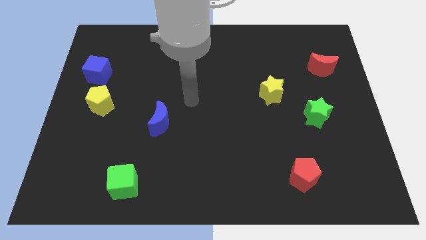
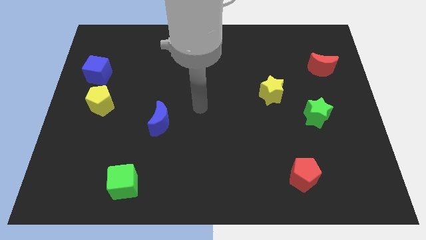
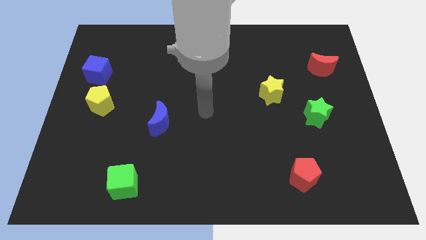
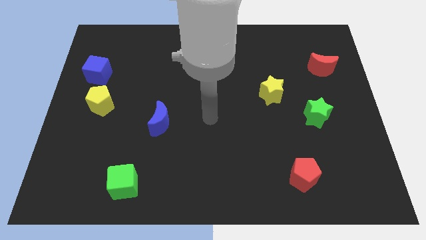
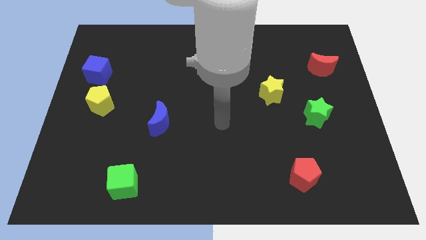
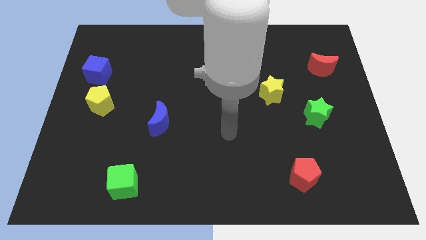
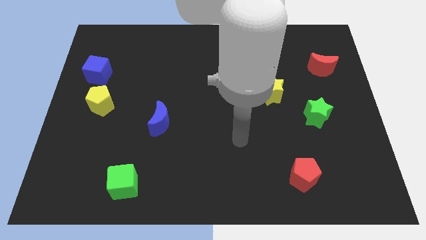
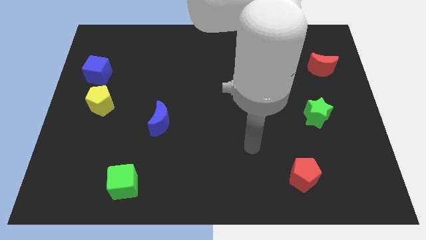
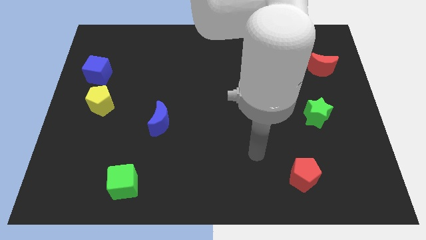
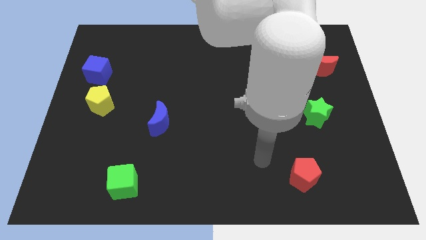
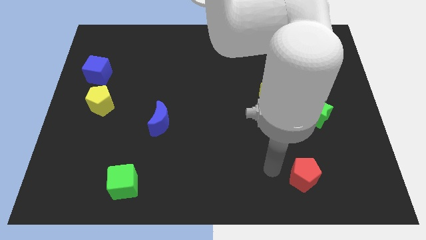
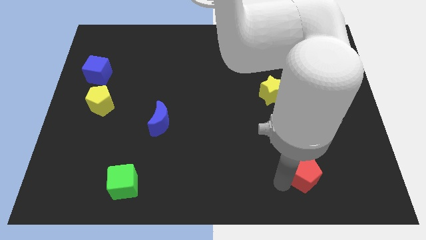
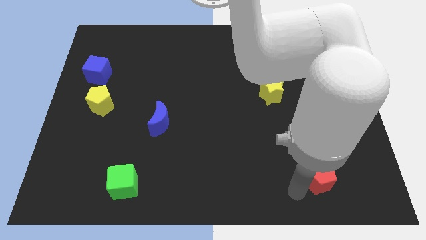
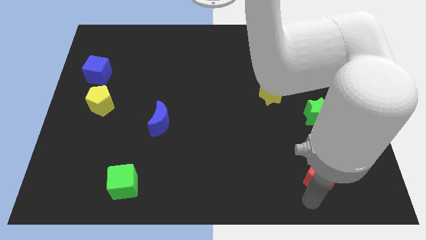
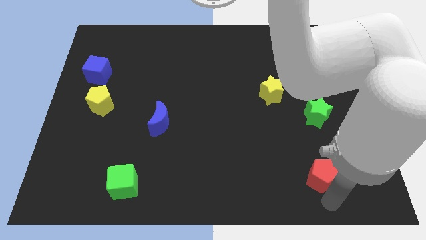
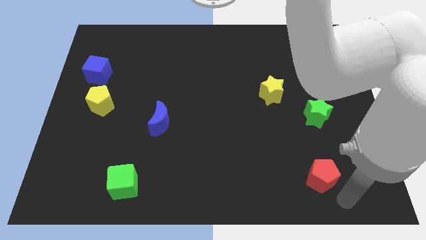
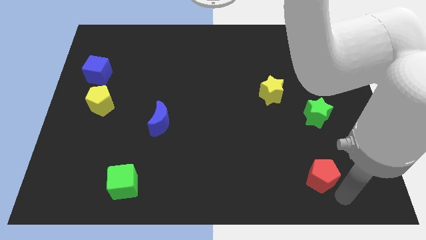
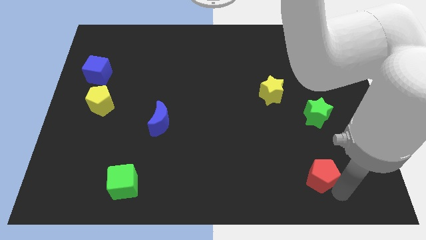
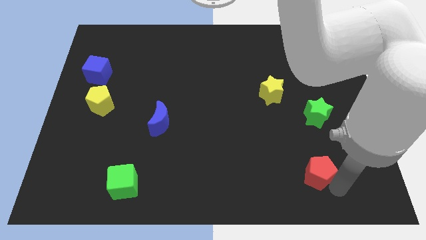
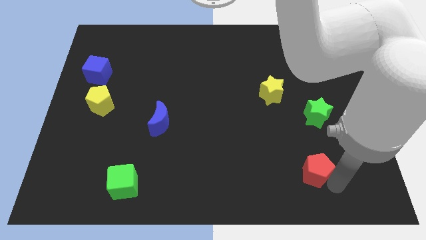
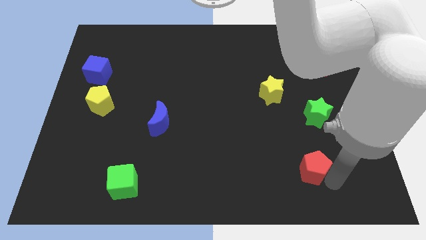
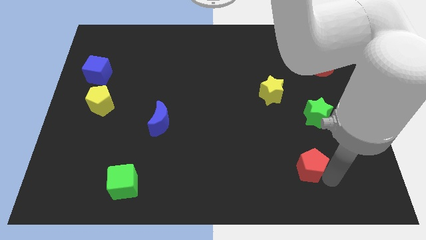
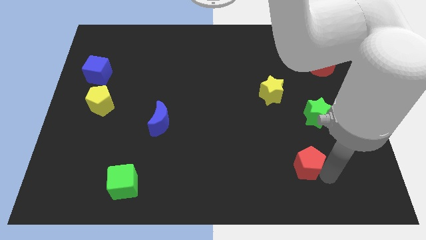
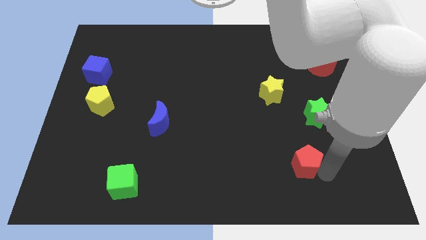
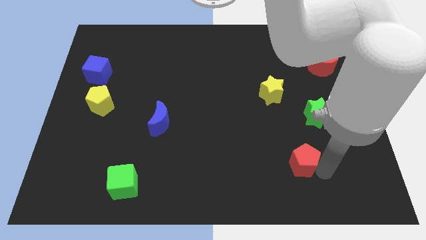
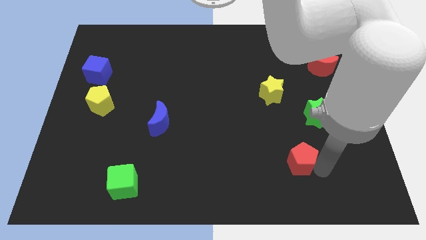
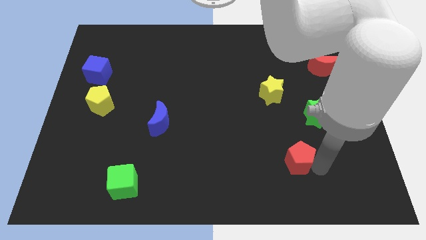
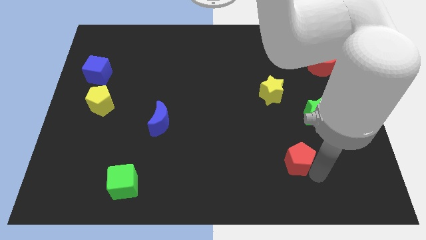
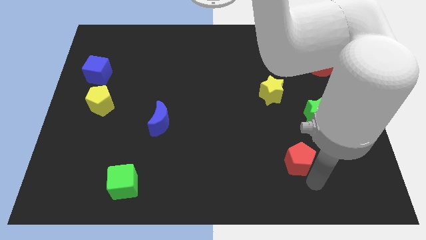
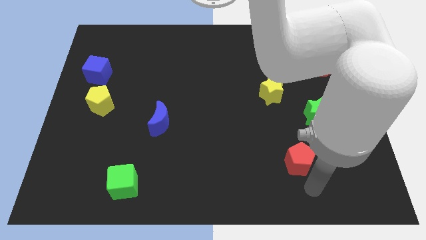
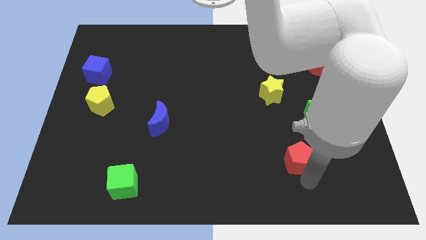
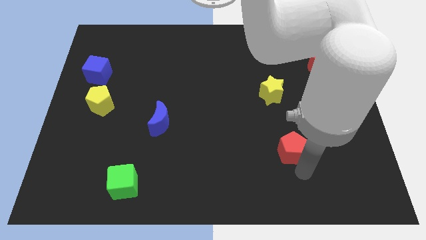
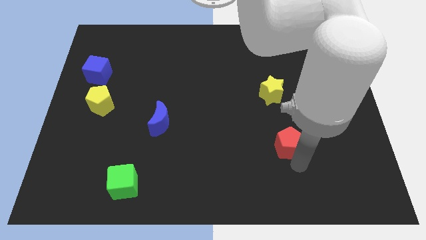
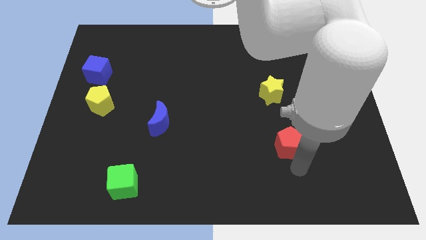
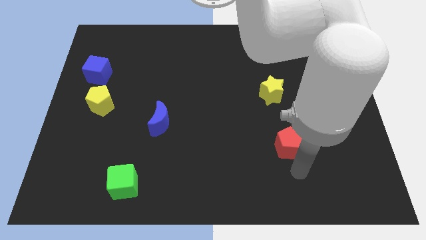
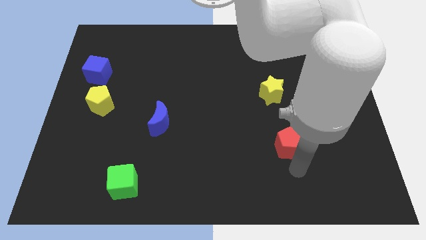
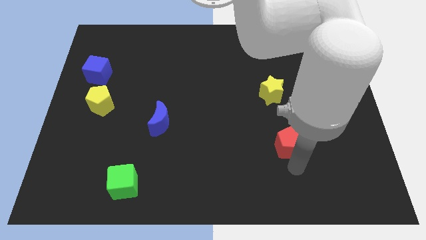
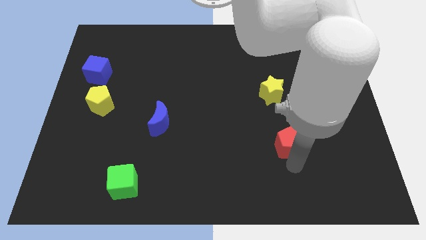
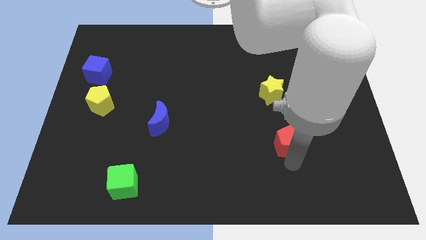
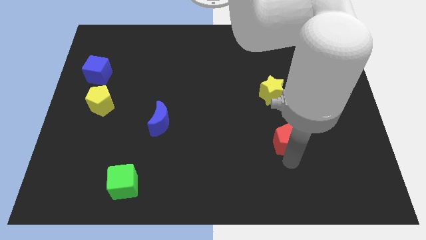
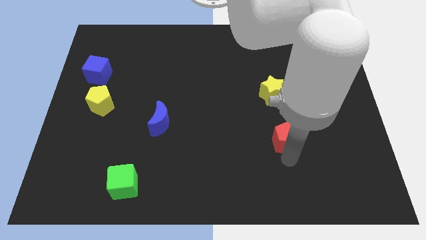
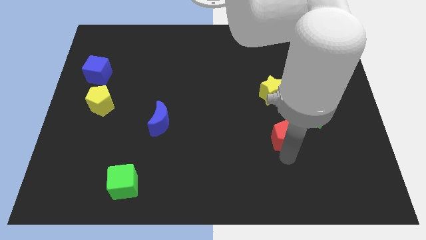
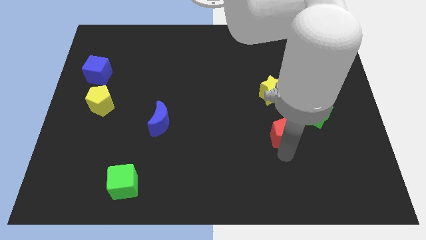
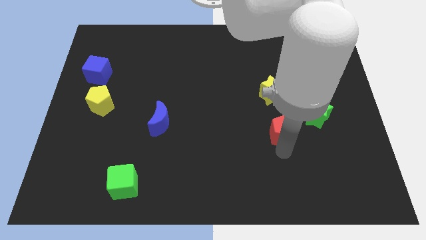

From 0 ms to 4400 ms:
move the red pentagon to the left side of the green star

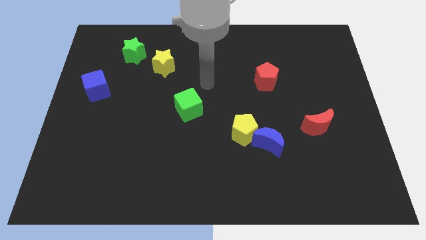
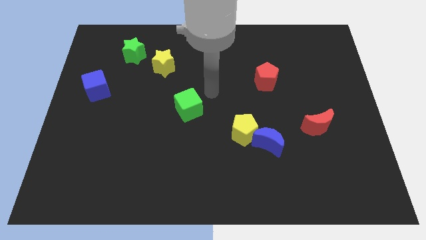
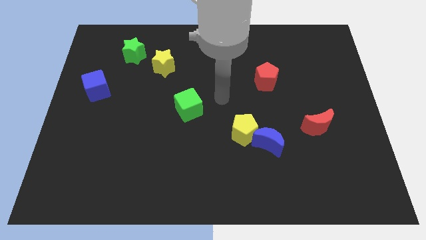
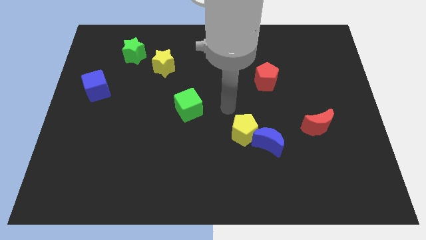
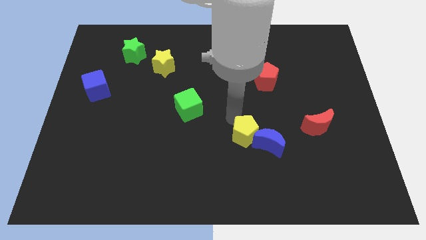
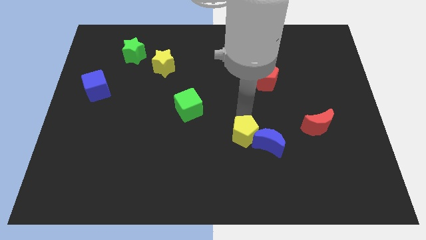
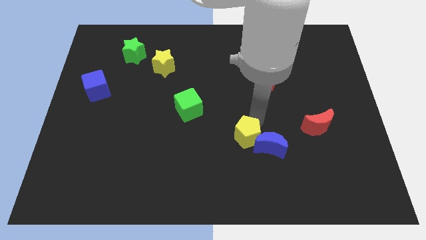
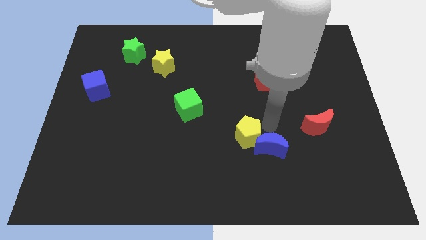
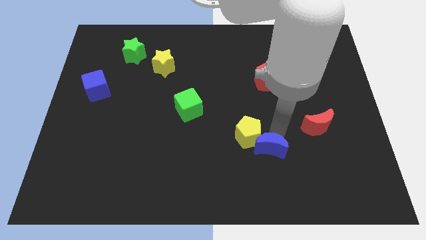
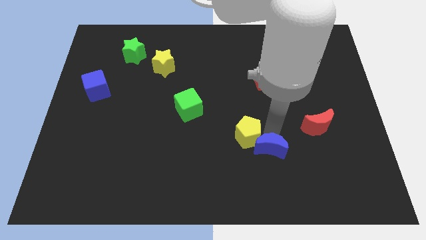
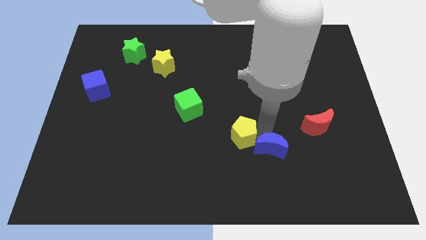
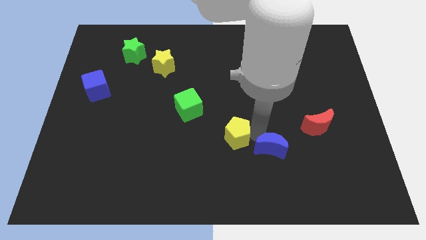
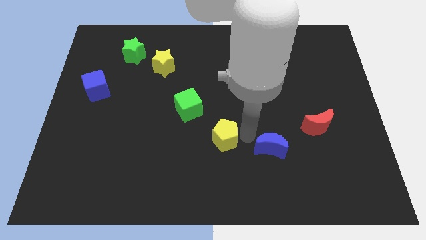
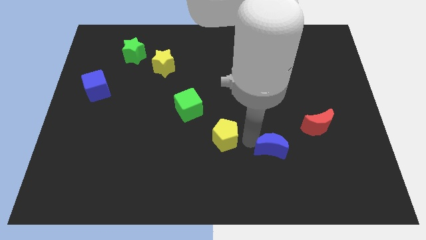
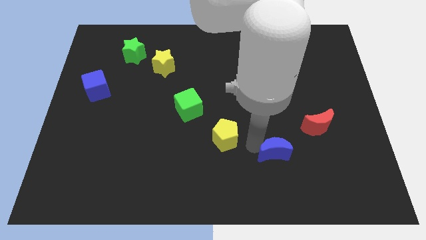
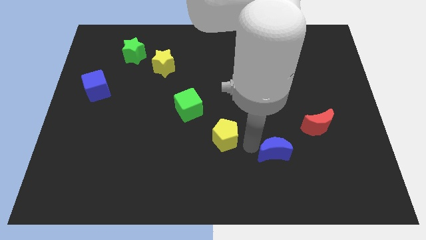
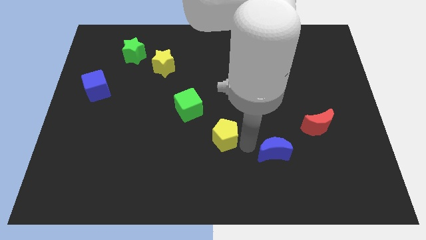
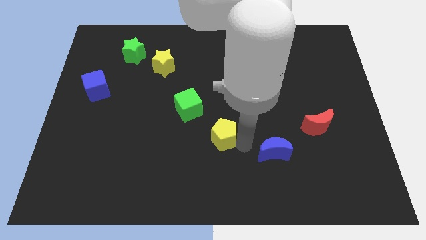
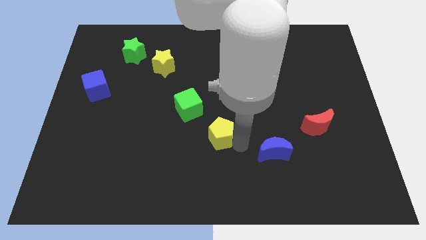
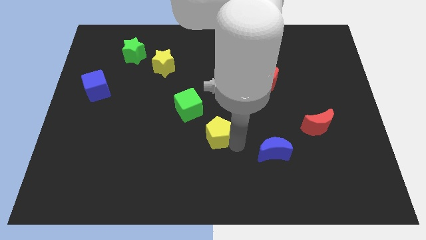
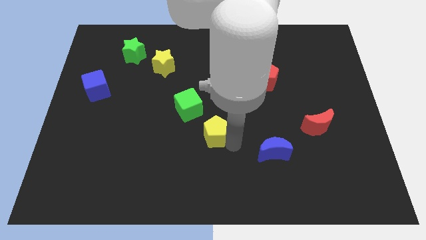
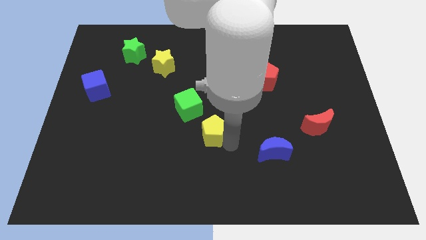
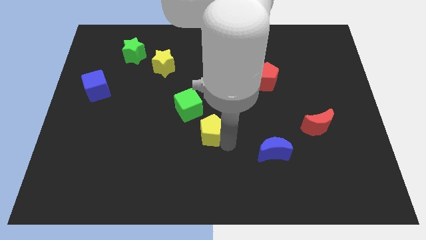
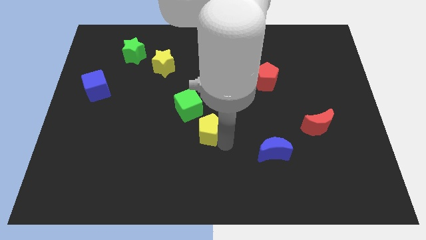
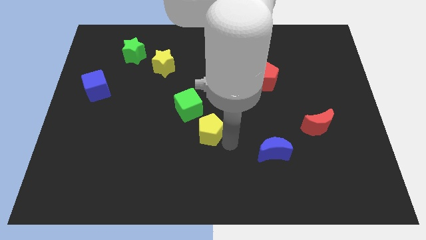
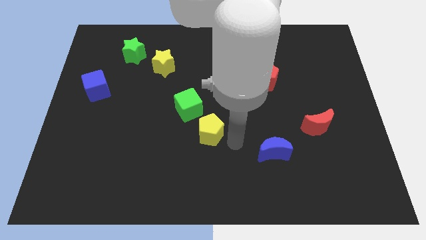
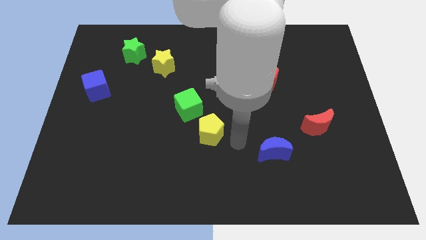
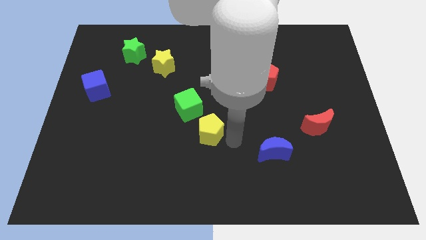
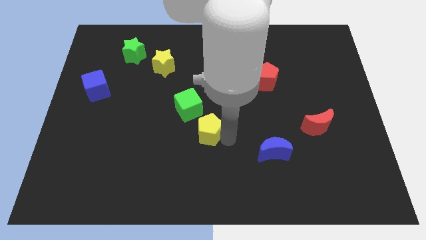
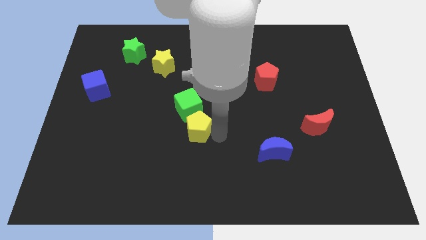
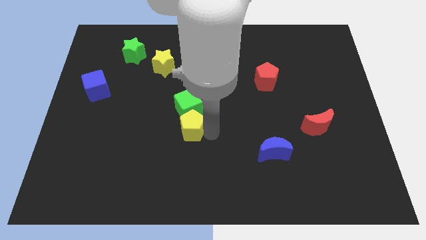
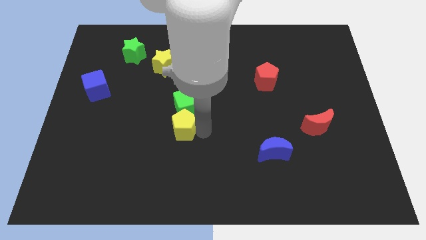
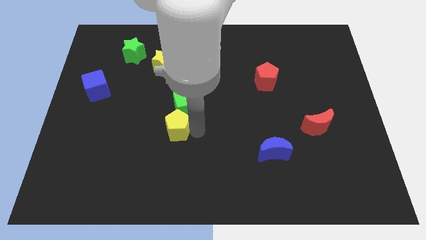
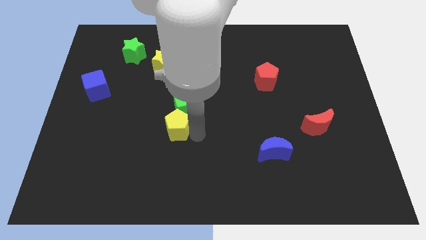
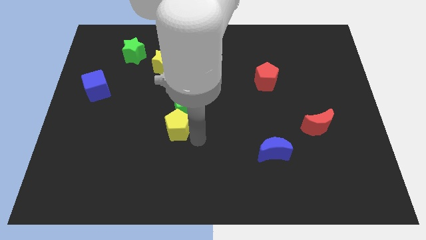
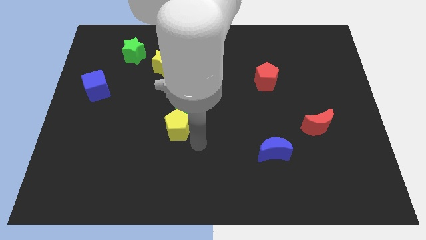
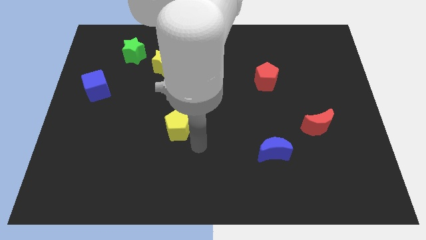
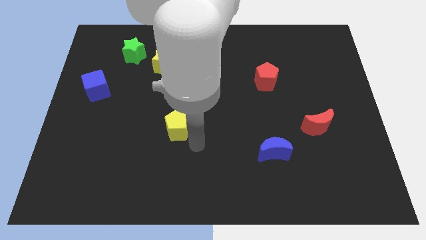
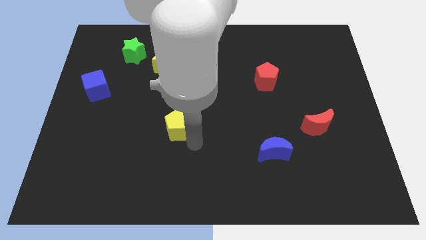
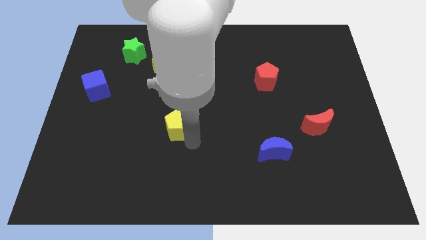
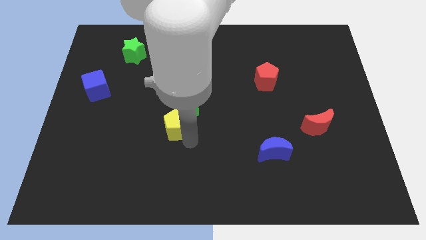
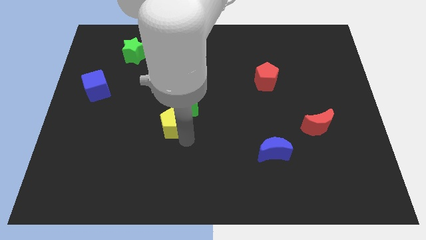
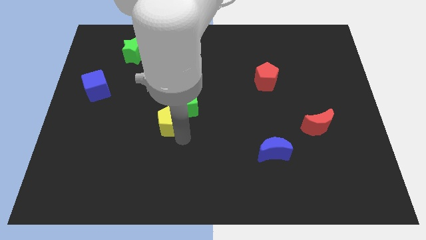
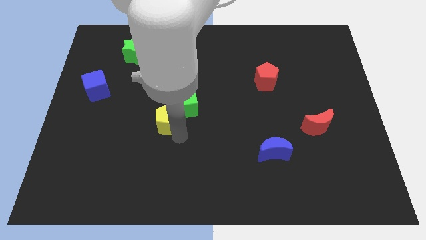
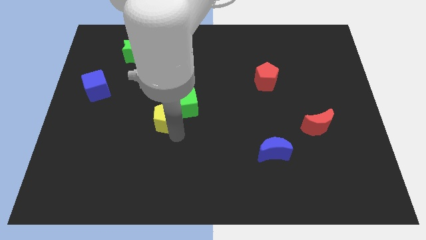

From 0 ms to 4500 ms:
push the yellow pentagon to the left side of the green cube
